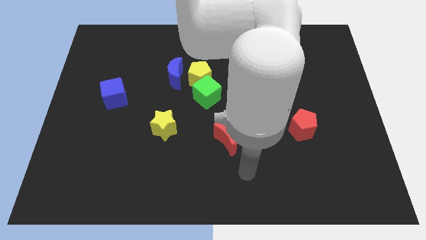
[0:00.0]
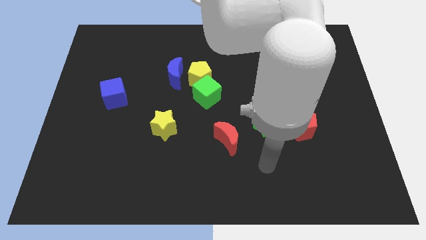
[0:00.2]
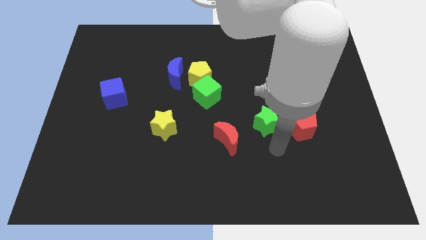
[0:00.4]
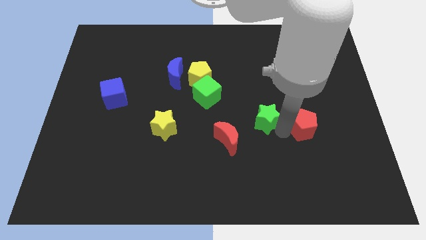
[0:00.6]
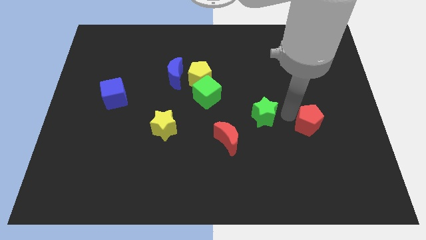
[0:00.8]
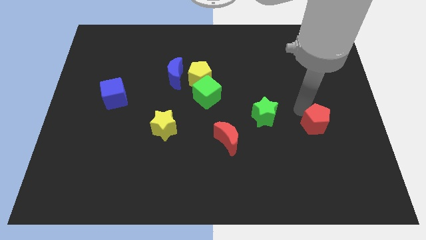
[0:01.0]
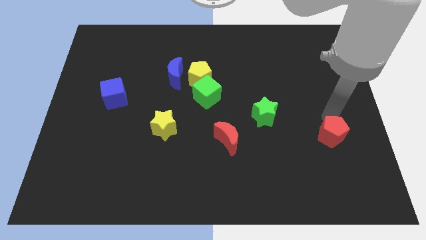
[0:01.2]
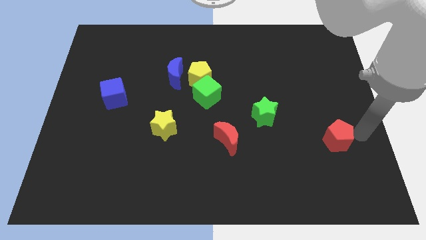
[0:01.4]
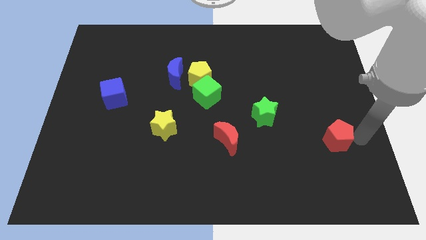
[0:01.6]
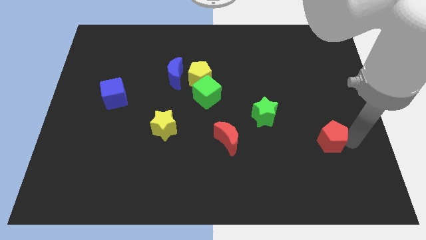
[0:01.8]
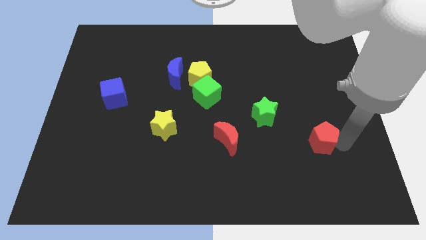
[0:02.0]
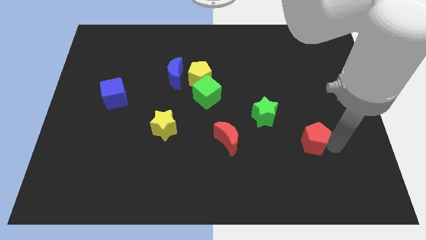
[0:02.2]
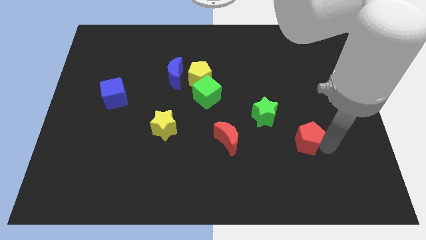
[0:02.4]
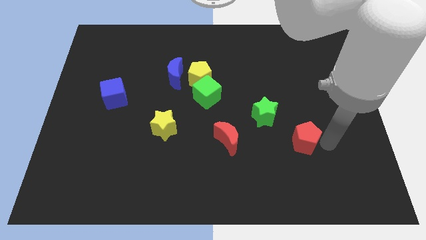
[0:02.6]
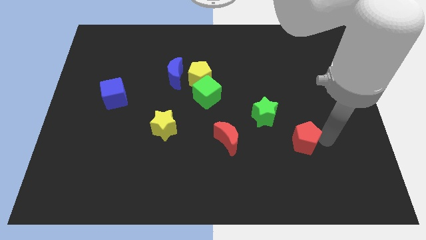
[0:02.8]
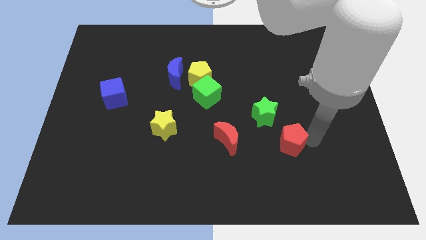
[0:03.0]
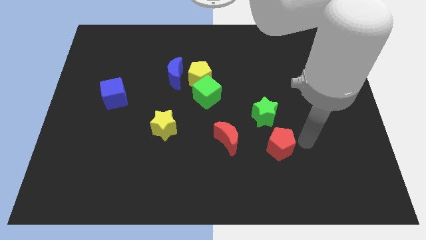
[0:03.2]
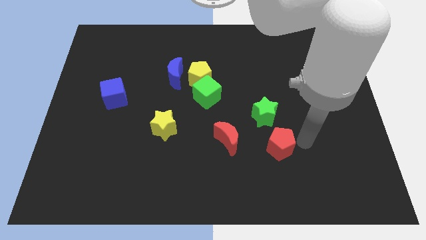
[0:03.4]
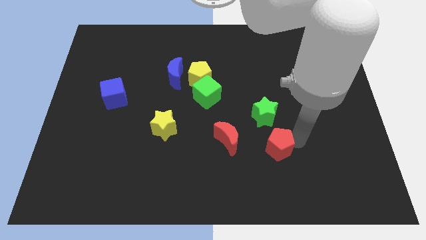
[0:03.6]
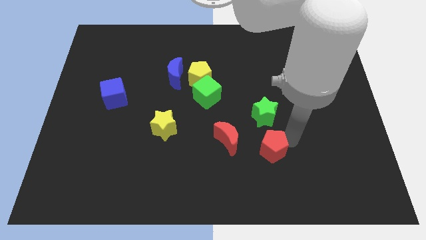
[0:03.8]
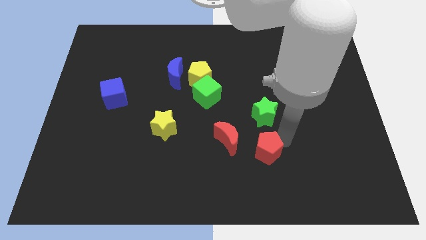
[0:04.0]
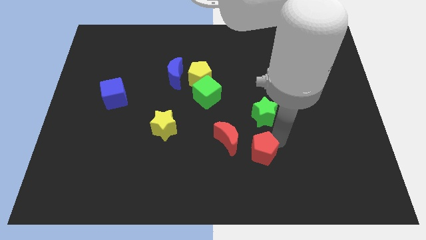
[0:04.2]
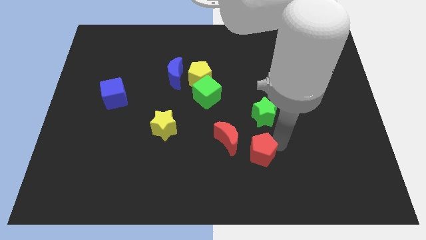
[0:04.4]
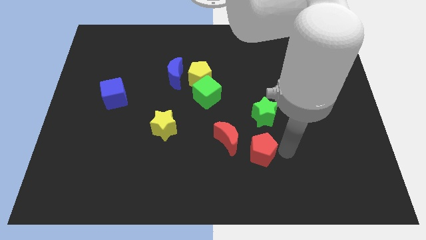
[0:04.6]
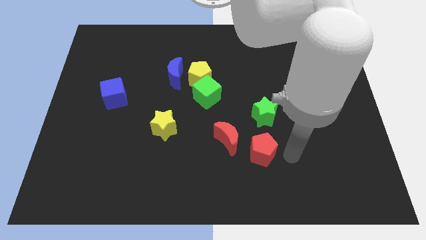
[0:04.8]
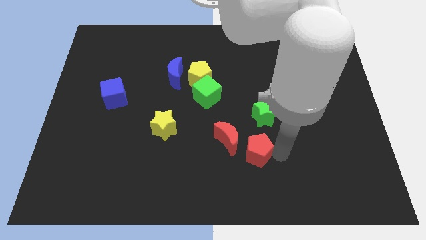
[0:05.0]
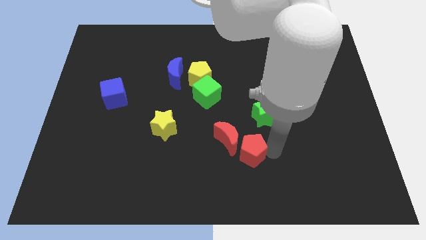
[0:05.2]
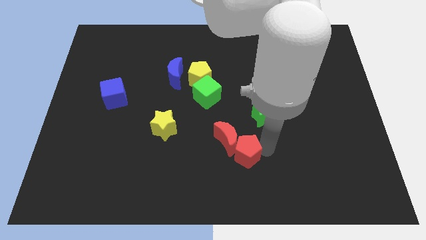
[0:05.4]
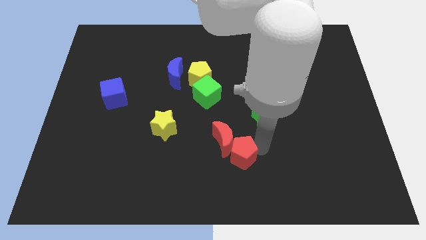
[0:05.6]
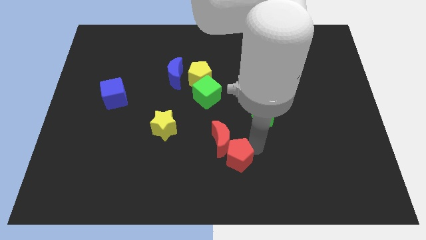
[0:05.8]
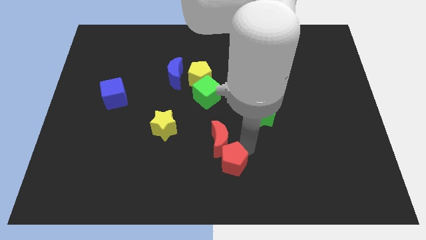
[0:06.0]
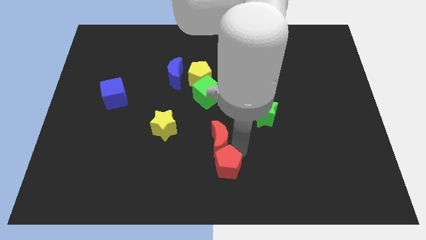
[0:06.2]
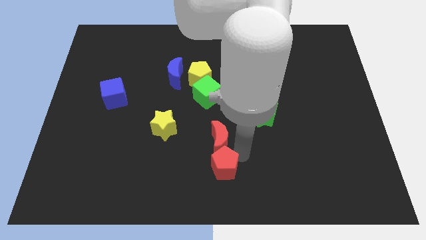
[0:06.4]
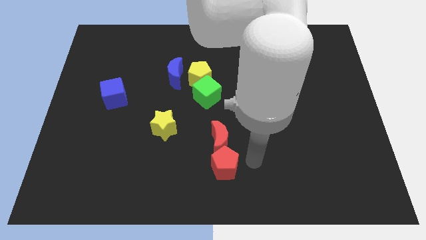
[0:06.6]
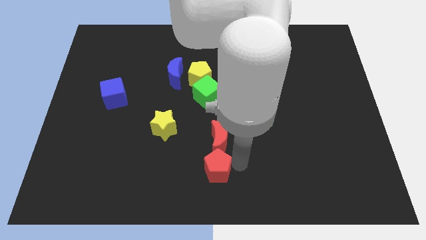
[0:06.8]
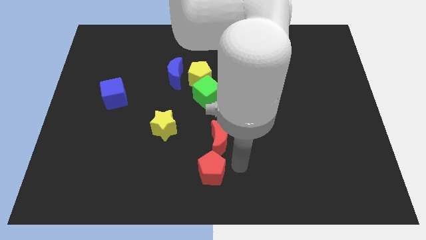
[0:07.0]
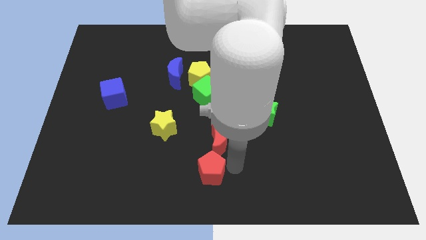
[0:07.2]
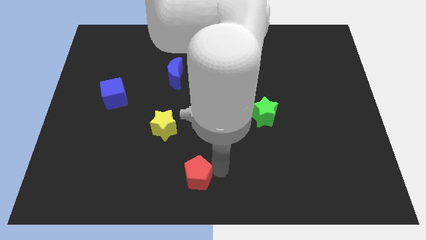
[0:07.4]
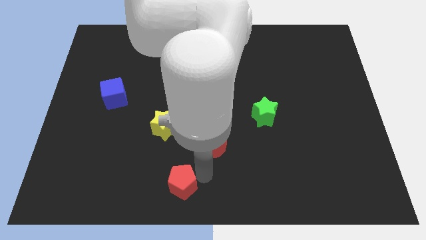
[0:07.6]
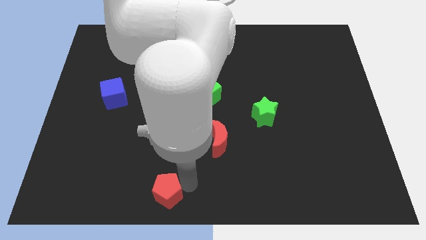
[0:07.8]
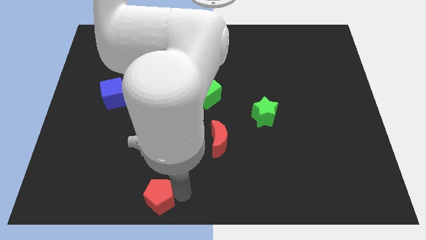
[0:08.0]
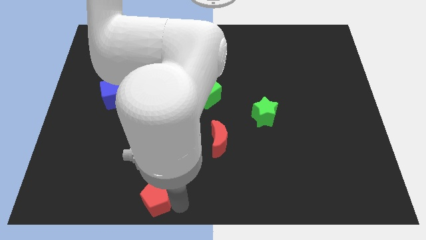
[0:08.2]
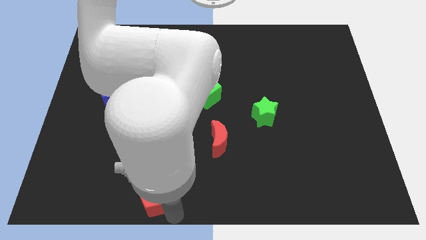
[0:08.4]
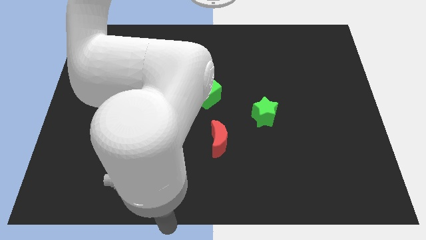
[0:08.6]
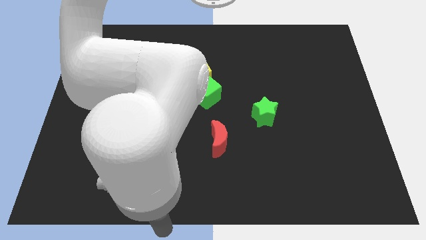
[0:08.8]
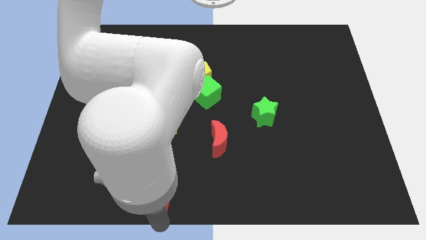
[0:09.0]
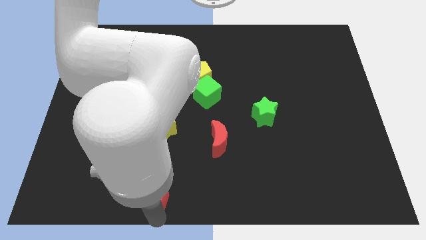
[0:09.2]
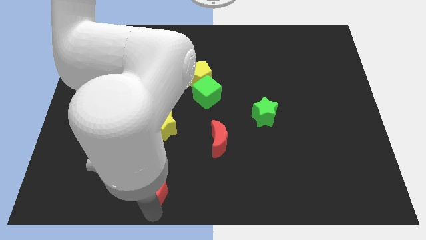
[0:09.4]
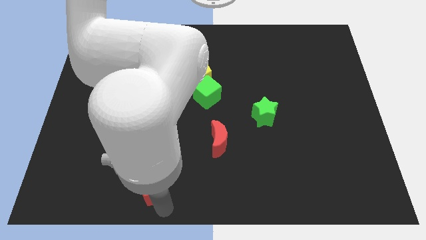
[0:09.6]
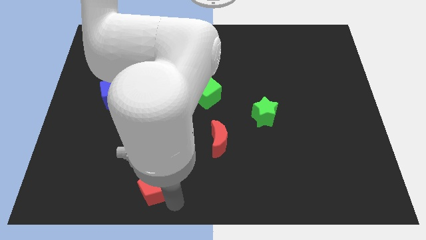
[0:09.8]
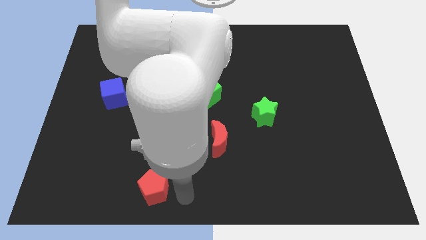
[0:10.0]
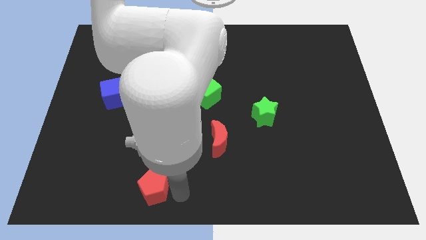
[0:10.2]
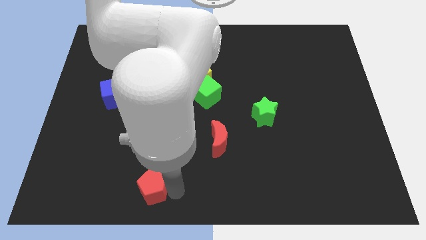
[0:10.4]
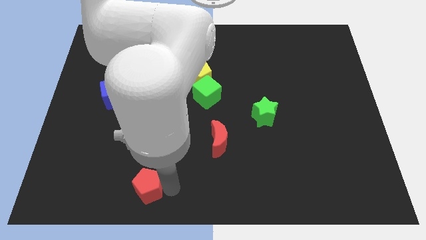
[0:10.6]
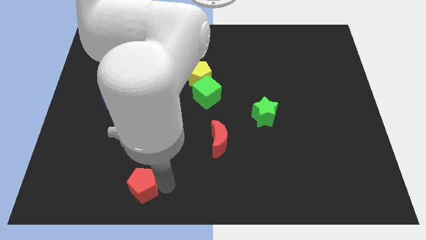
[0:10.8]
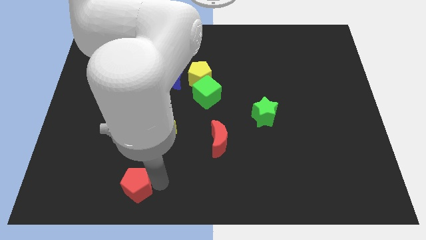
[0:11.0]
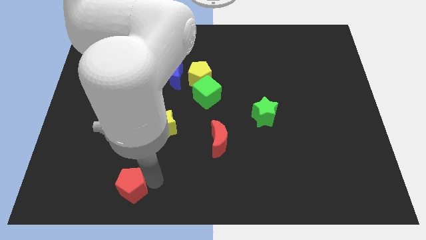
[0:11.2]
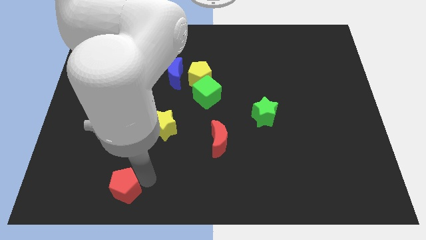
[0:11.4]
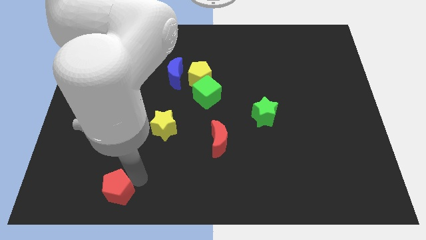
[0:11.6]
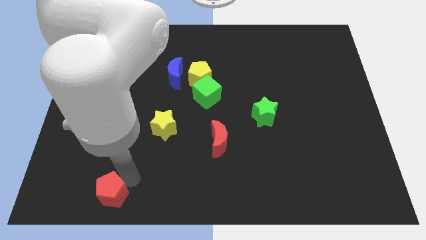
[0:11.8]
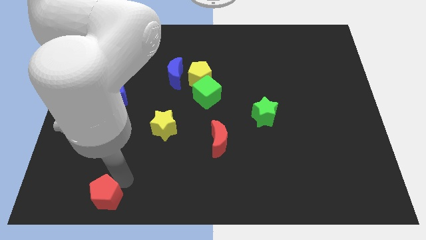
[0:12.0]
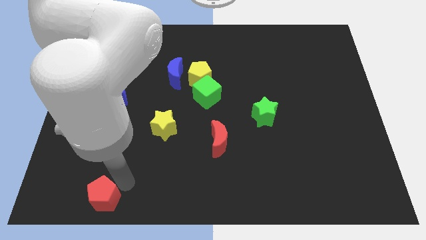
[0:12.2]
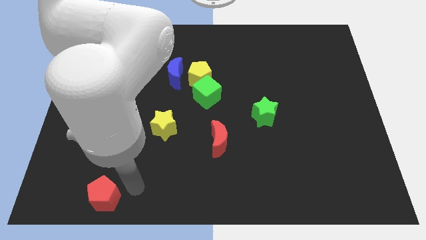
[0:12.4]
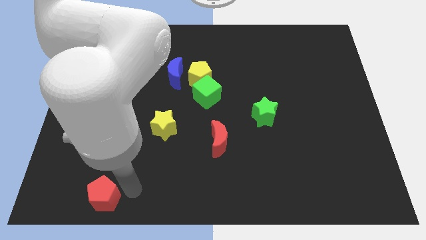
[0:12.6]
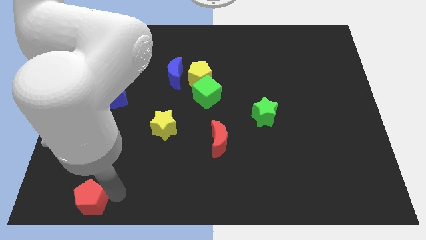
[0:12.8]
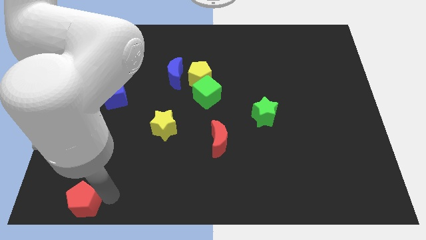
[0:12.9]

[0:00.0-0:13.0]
push the red pentagon to the lower left corner
